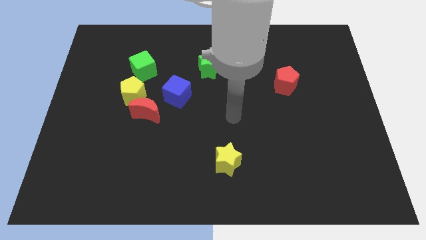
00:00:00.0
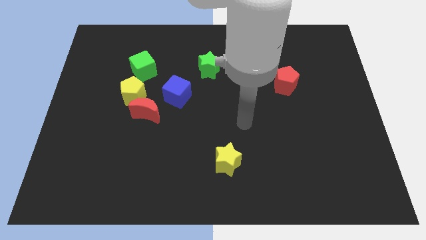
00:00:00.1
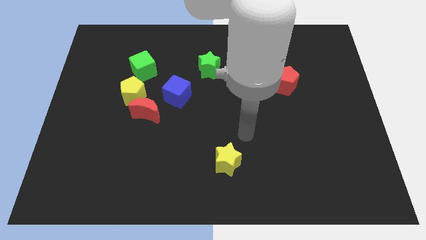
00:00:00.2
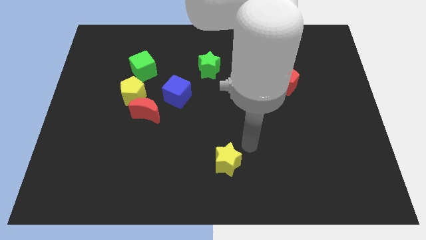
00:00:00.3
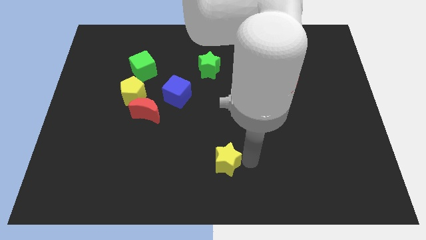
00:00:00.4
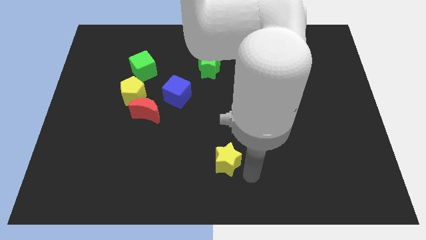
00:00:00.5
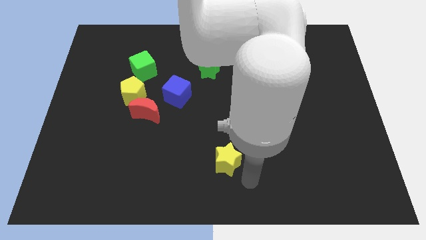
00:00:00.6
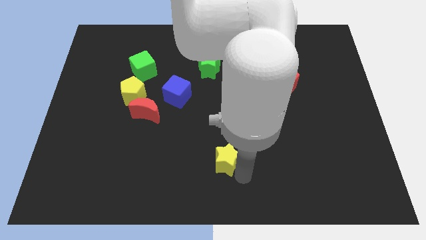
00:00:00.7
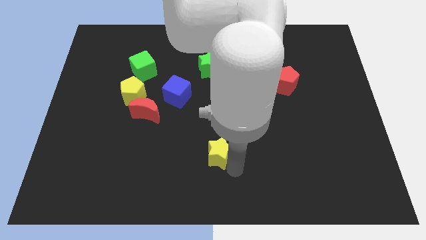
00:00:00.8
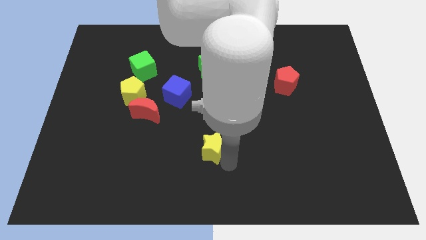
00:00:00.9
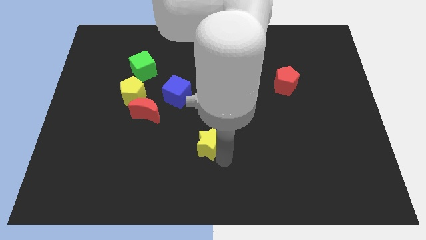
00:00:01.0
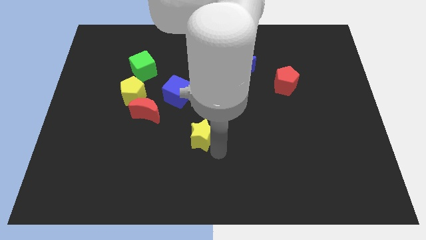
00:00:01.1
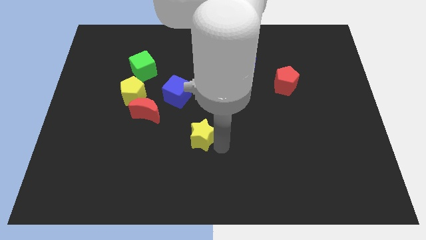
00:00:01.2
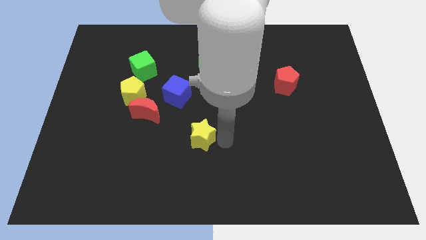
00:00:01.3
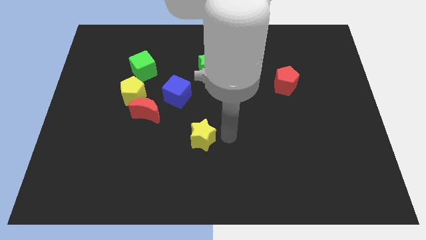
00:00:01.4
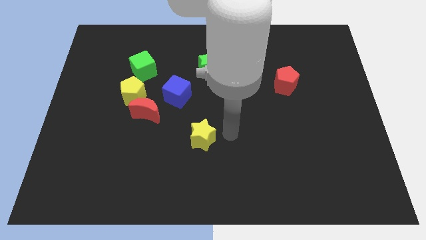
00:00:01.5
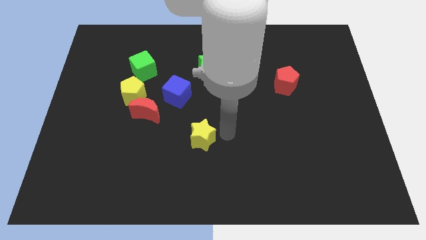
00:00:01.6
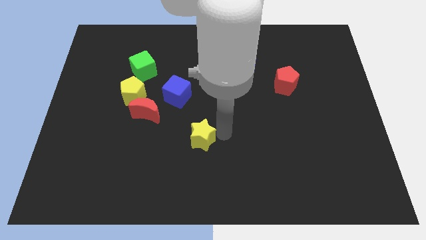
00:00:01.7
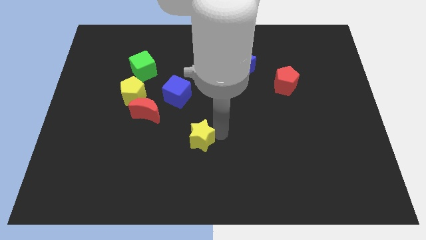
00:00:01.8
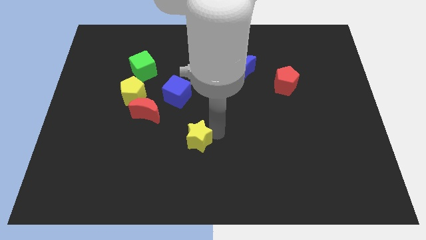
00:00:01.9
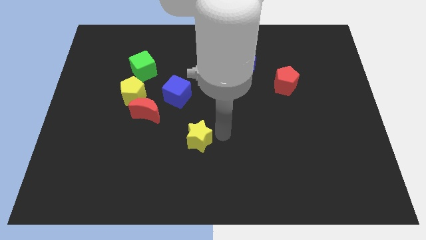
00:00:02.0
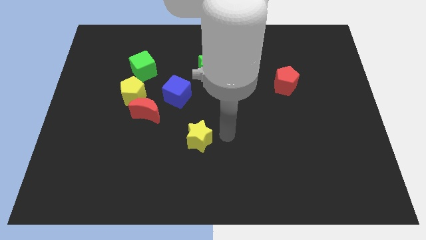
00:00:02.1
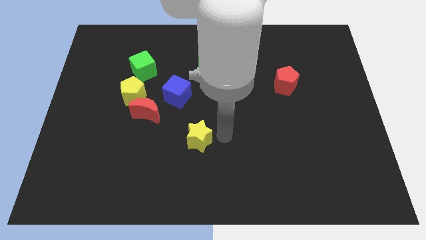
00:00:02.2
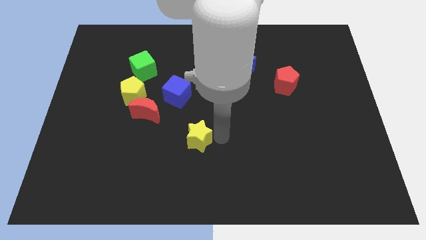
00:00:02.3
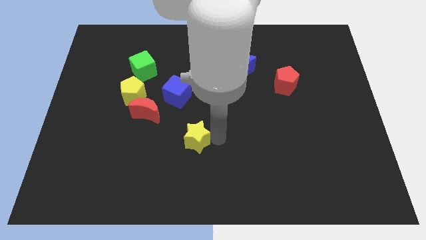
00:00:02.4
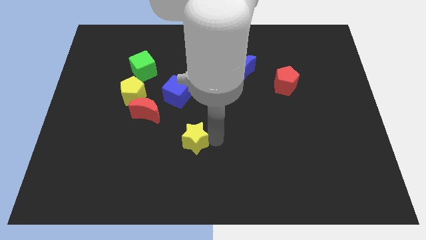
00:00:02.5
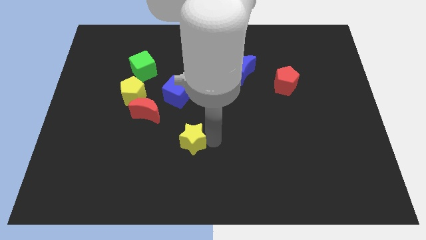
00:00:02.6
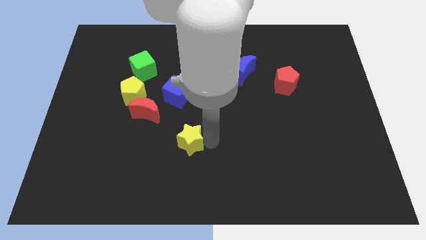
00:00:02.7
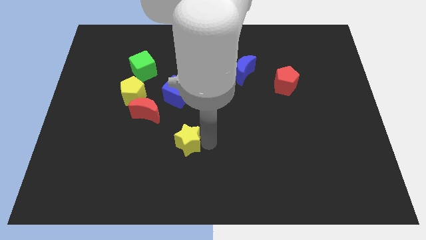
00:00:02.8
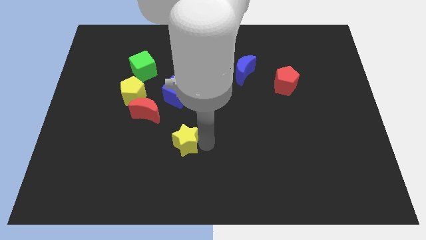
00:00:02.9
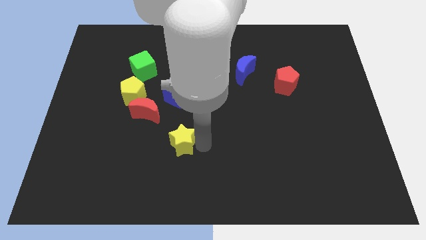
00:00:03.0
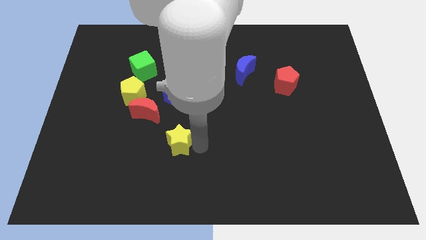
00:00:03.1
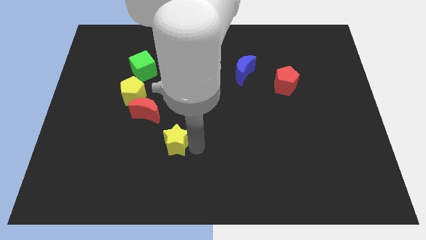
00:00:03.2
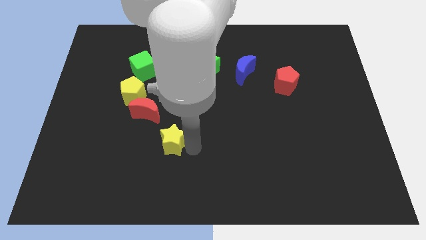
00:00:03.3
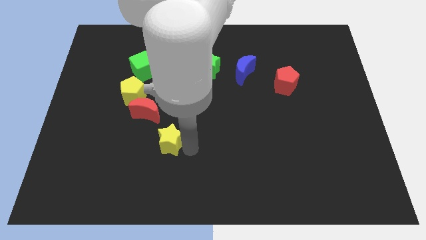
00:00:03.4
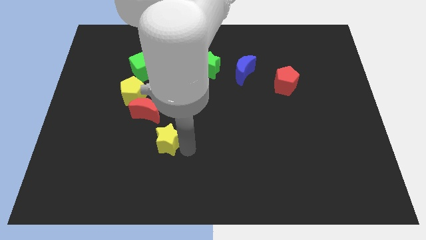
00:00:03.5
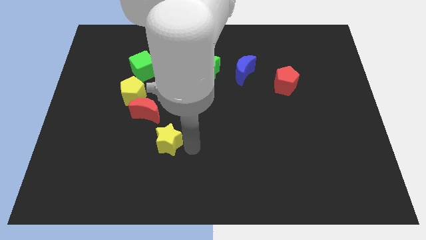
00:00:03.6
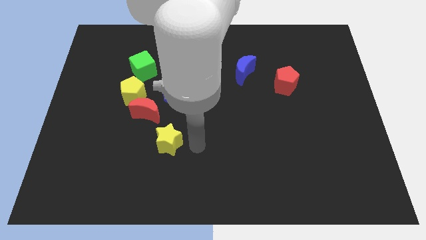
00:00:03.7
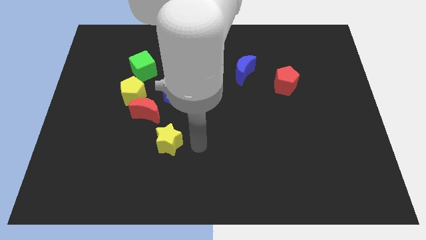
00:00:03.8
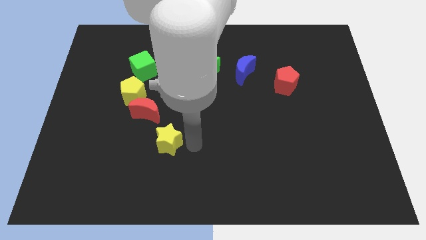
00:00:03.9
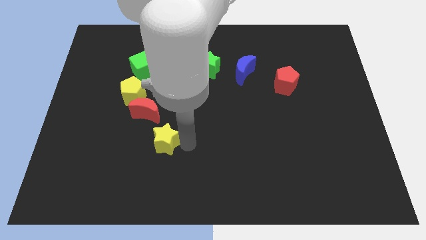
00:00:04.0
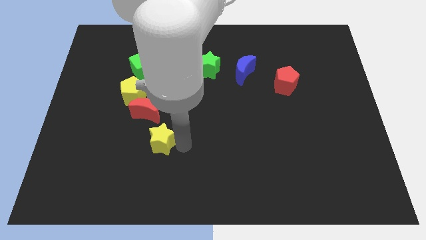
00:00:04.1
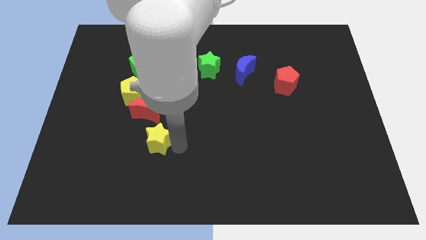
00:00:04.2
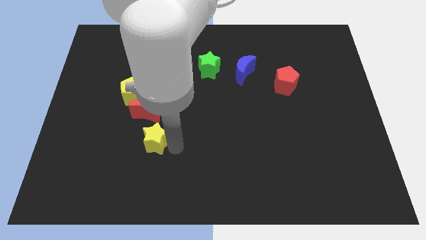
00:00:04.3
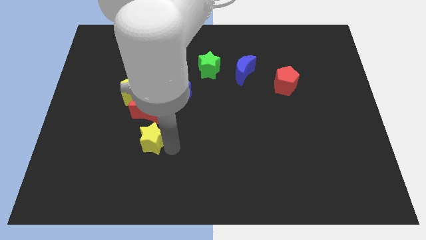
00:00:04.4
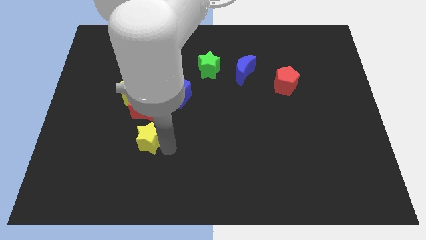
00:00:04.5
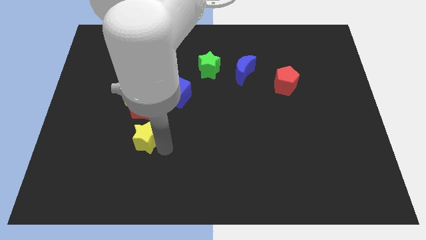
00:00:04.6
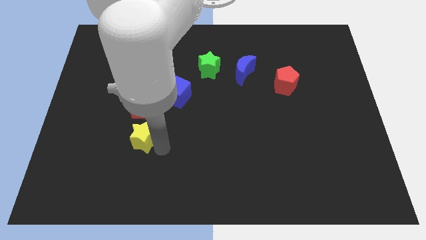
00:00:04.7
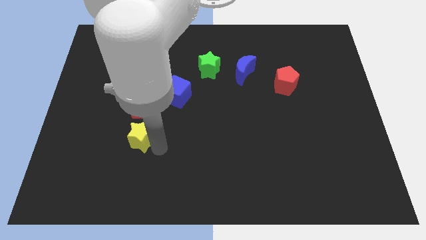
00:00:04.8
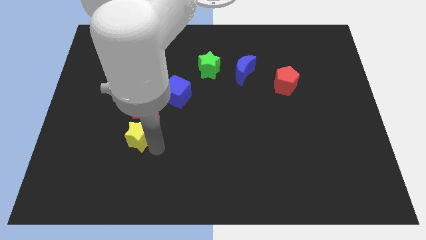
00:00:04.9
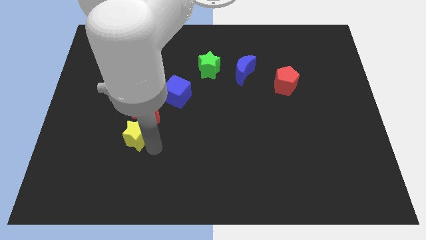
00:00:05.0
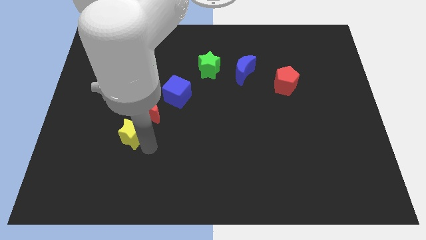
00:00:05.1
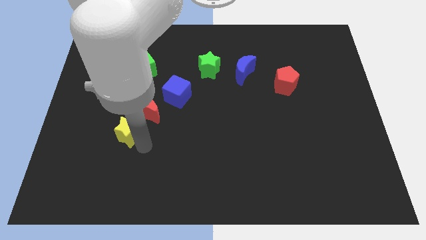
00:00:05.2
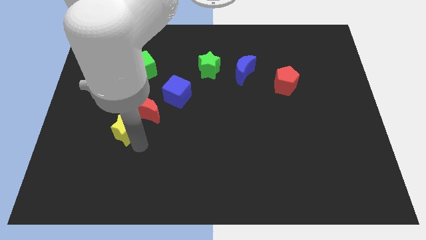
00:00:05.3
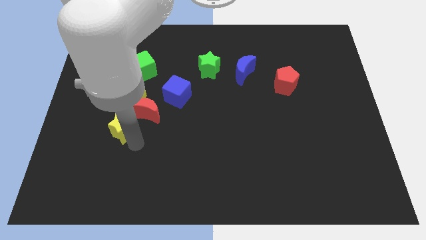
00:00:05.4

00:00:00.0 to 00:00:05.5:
move the yellow star just left of the red moon

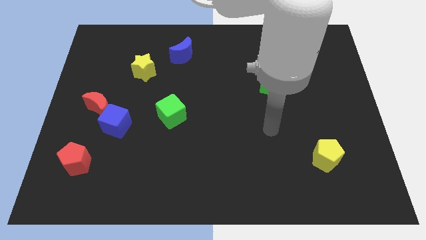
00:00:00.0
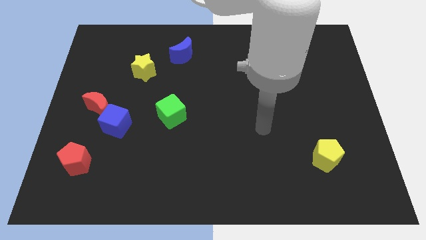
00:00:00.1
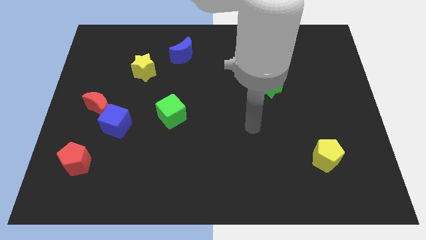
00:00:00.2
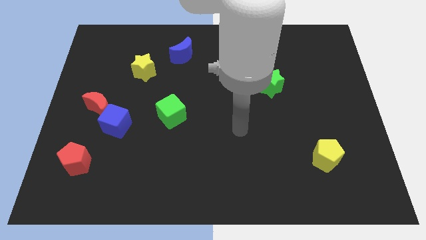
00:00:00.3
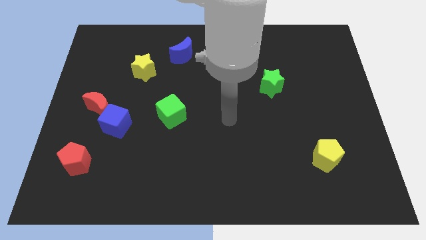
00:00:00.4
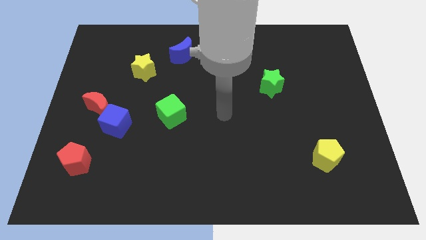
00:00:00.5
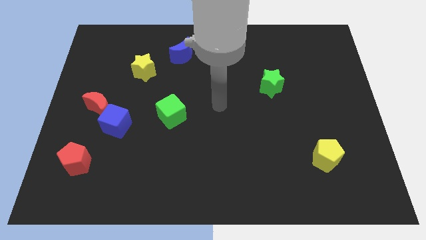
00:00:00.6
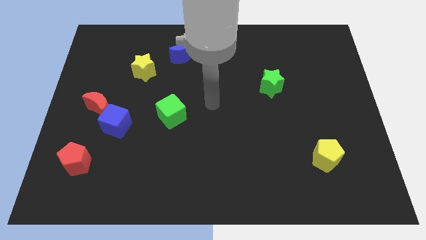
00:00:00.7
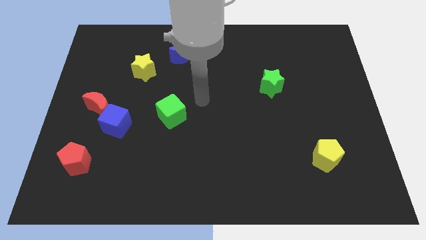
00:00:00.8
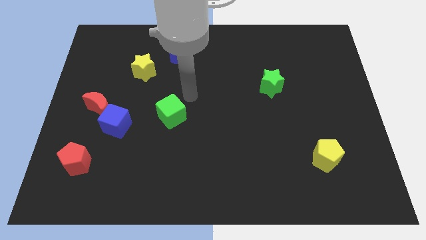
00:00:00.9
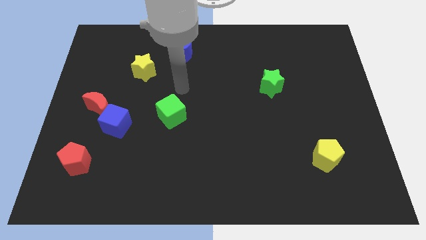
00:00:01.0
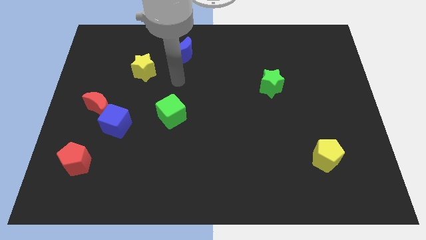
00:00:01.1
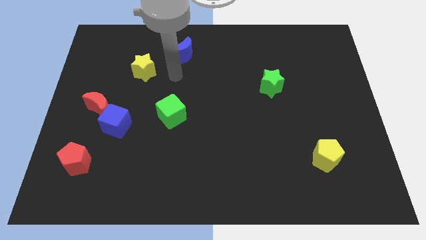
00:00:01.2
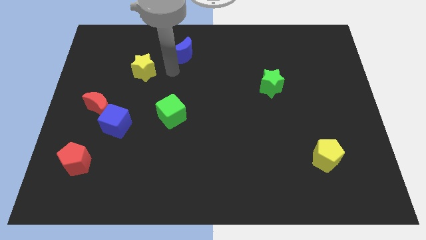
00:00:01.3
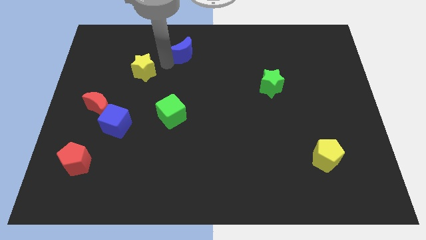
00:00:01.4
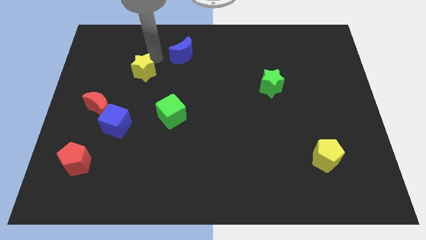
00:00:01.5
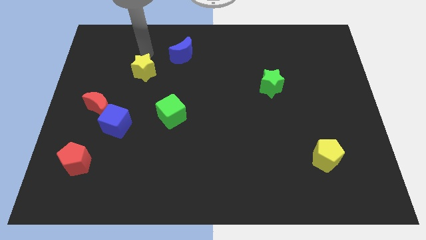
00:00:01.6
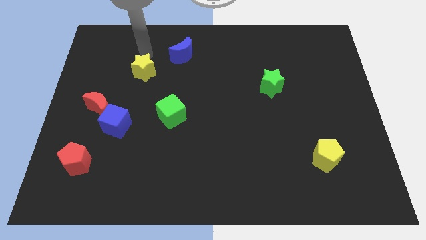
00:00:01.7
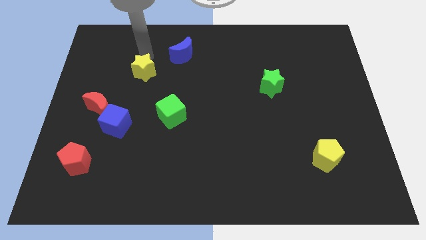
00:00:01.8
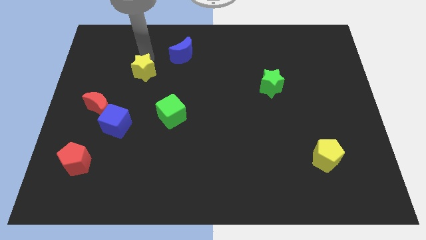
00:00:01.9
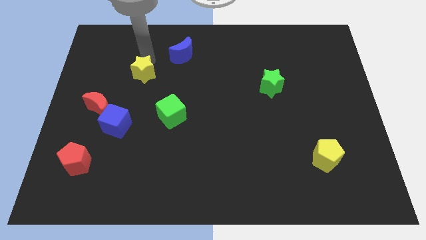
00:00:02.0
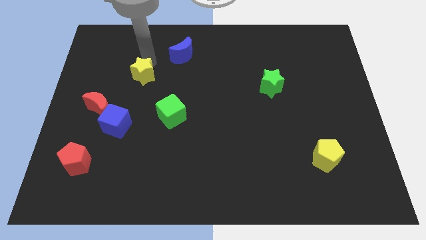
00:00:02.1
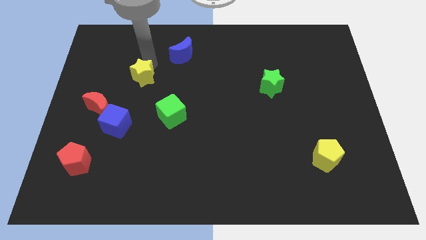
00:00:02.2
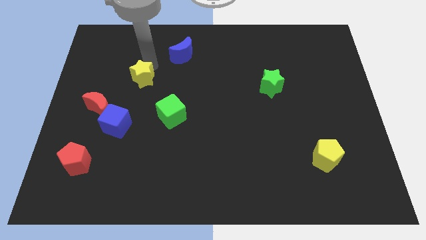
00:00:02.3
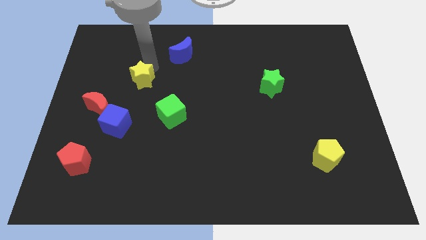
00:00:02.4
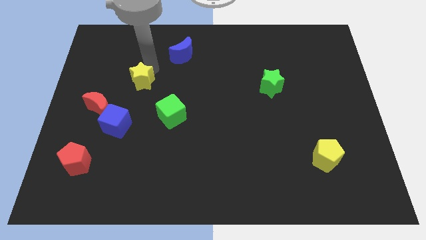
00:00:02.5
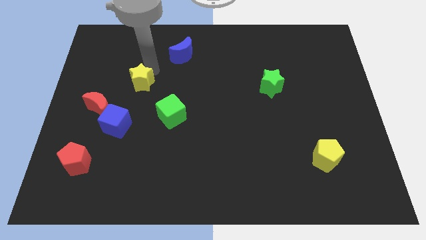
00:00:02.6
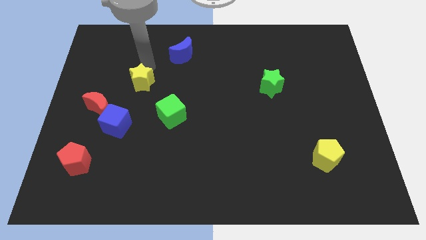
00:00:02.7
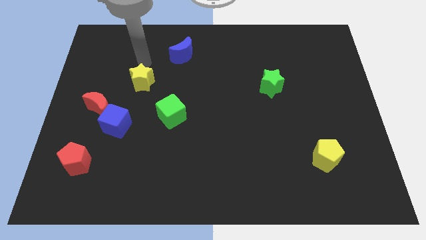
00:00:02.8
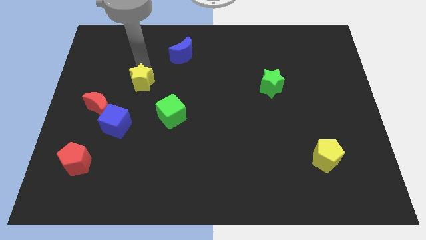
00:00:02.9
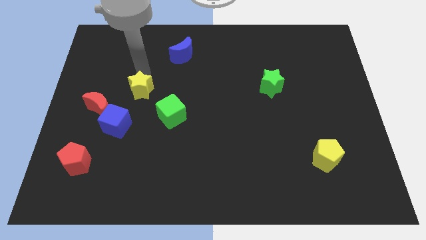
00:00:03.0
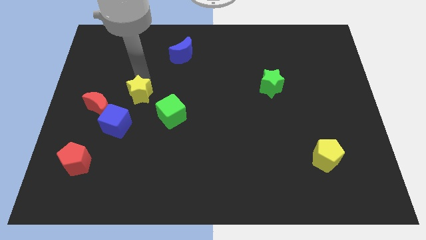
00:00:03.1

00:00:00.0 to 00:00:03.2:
put the yellow star to the top right of the blue cube
